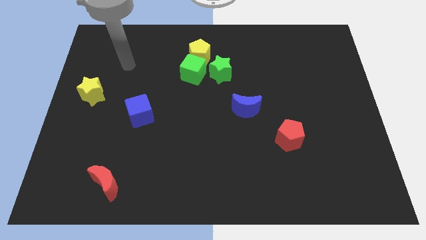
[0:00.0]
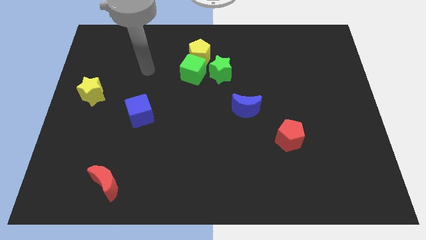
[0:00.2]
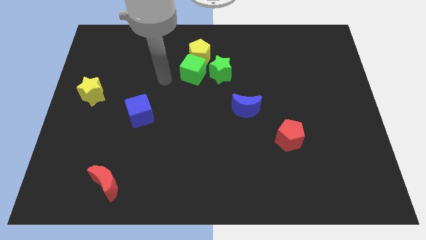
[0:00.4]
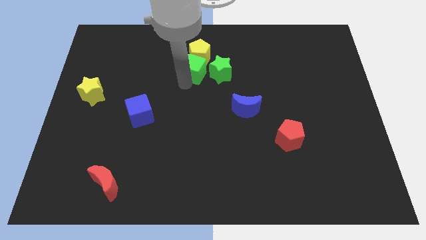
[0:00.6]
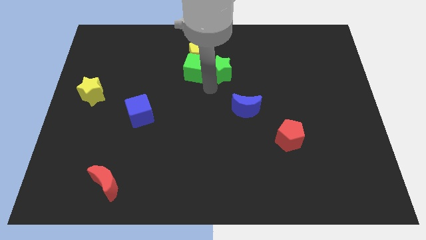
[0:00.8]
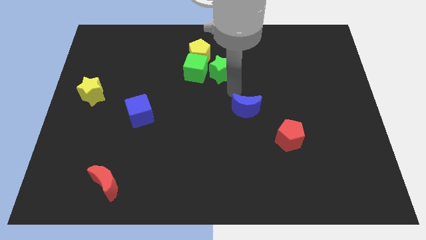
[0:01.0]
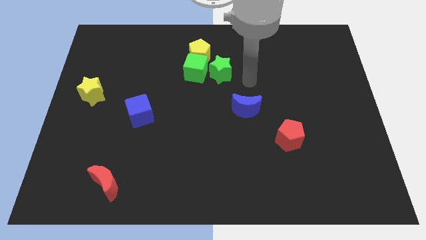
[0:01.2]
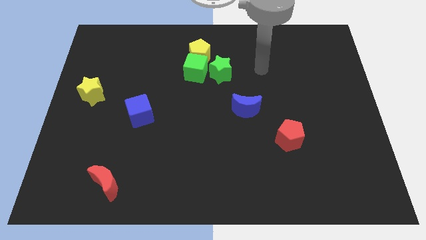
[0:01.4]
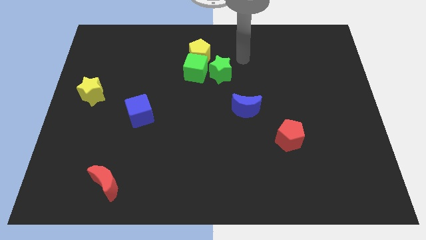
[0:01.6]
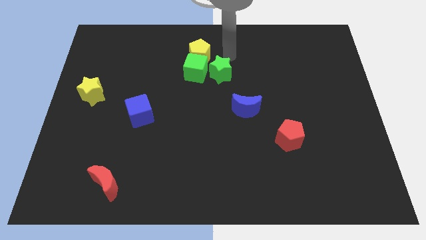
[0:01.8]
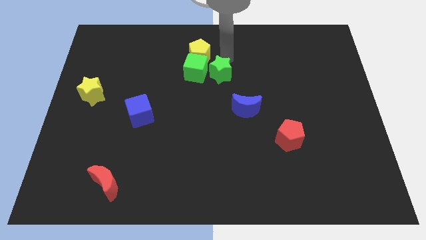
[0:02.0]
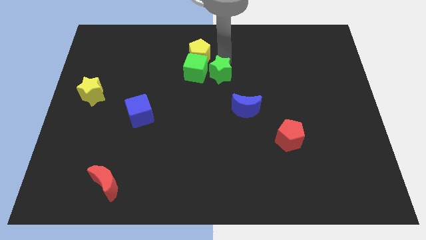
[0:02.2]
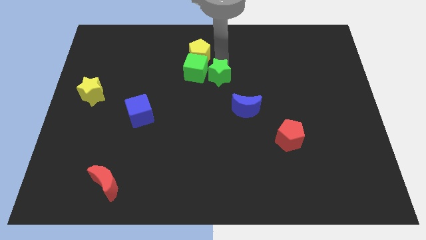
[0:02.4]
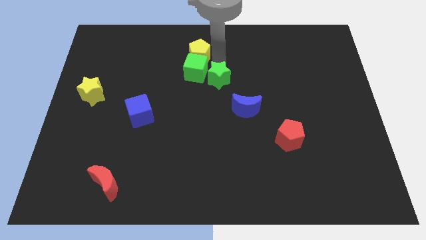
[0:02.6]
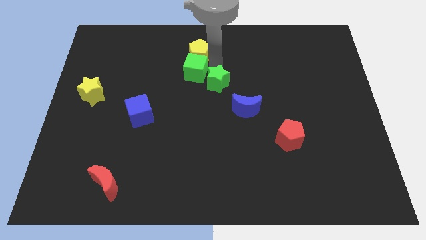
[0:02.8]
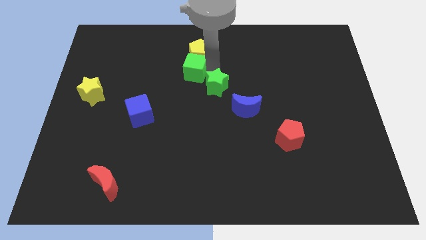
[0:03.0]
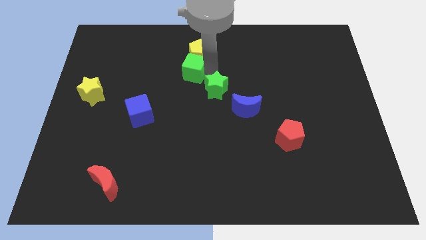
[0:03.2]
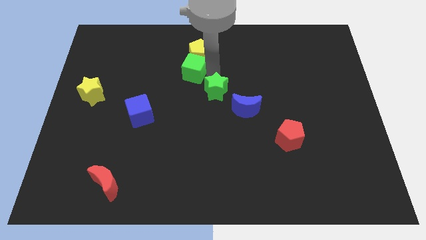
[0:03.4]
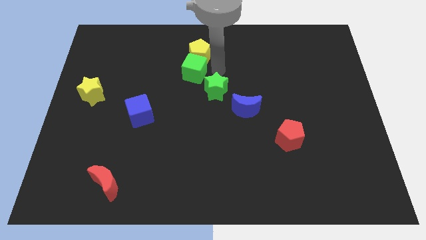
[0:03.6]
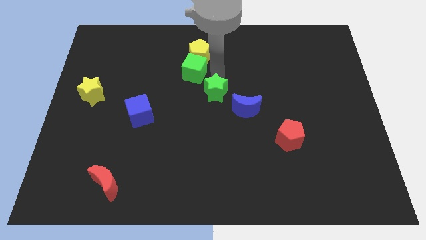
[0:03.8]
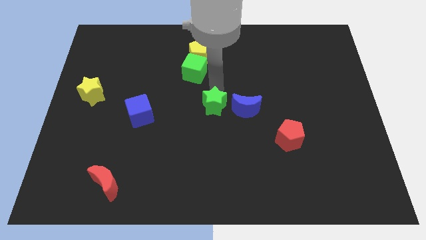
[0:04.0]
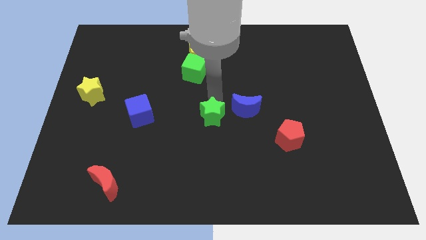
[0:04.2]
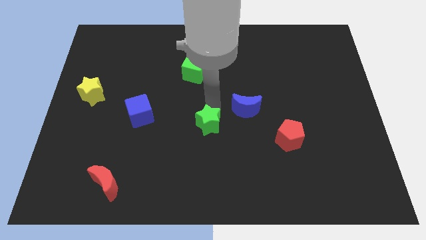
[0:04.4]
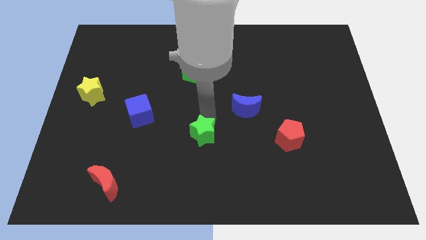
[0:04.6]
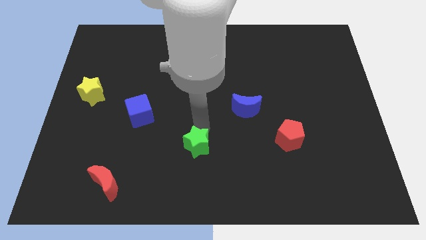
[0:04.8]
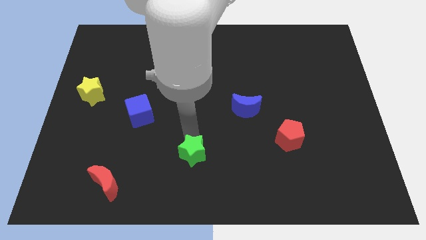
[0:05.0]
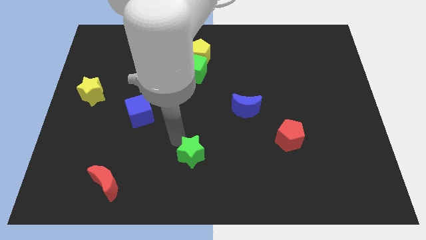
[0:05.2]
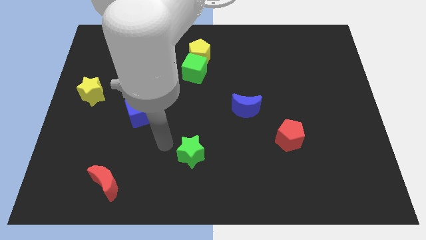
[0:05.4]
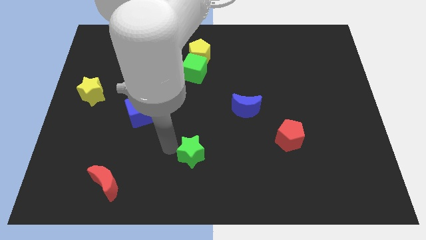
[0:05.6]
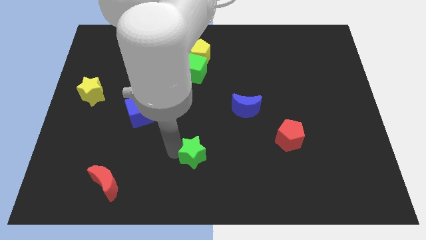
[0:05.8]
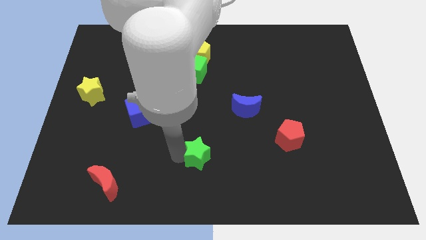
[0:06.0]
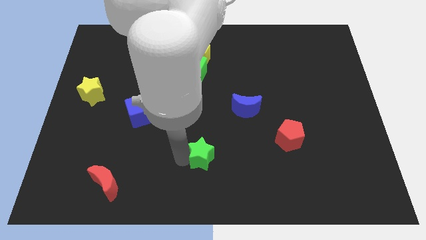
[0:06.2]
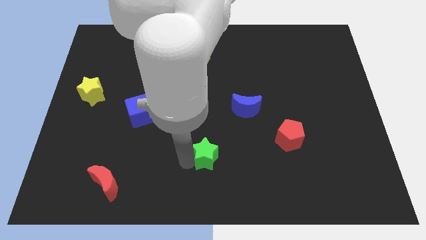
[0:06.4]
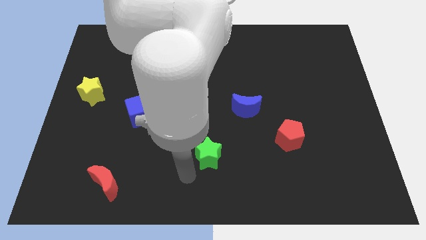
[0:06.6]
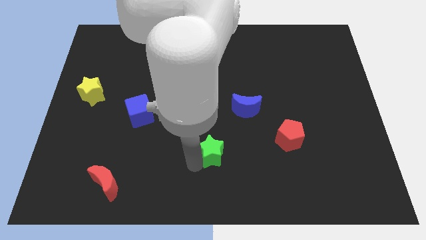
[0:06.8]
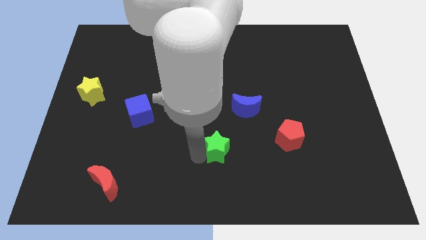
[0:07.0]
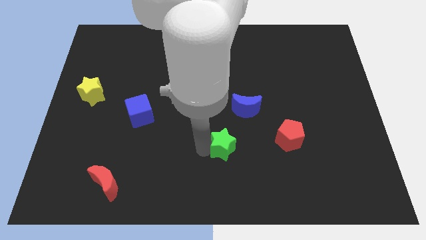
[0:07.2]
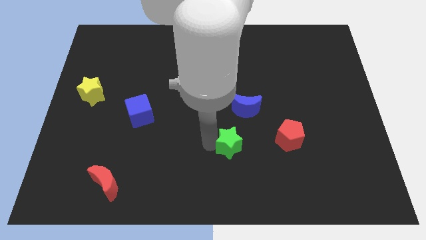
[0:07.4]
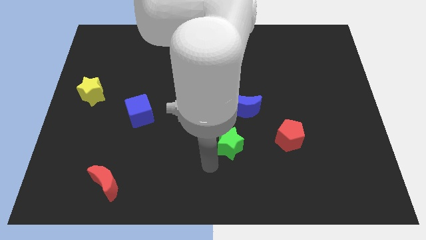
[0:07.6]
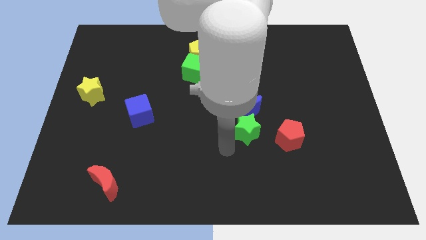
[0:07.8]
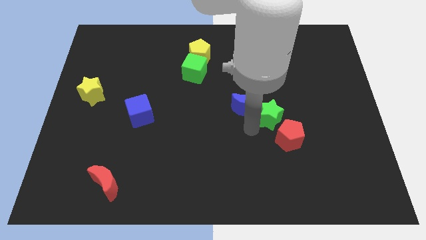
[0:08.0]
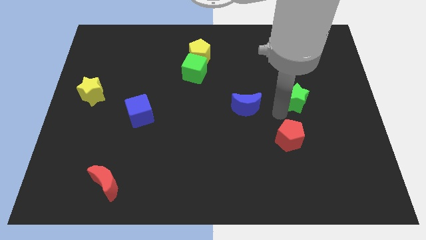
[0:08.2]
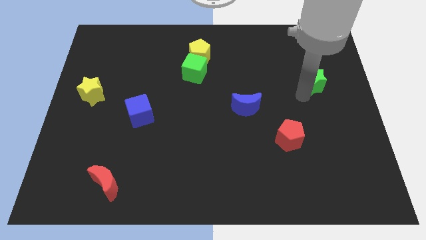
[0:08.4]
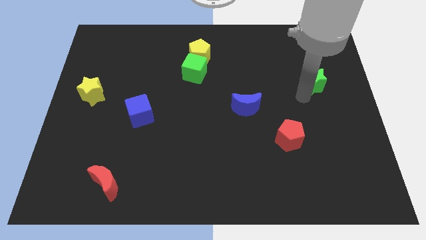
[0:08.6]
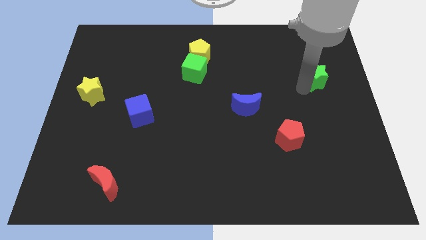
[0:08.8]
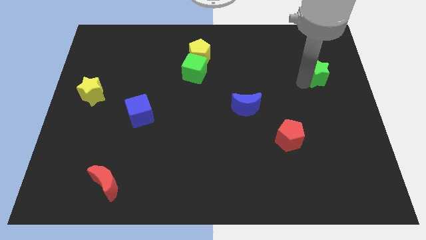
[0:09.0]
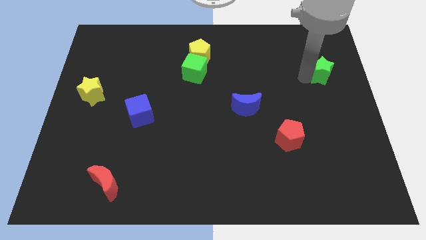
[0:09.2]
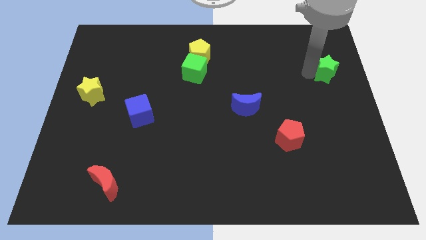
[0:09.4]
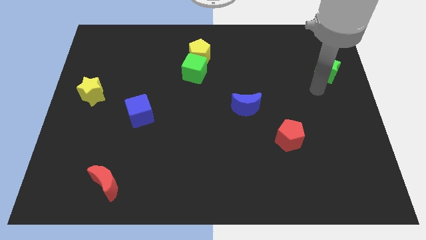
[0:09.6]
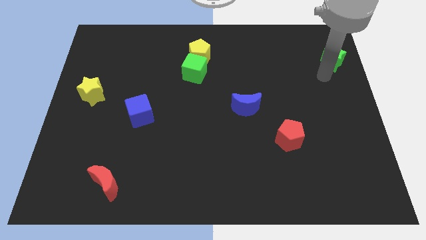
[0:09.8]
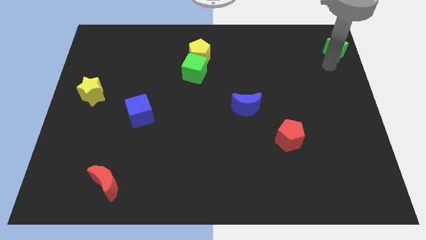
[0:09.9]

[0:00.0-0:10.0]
slide the green star to the top right corner

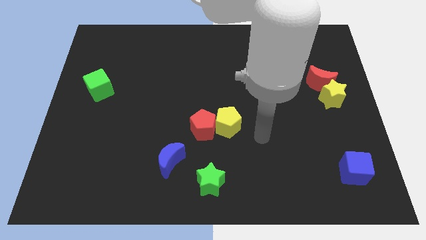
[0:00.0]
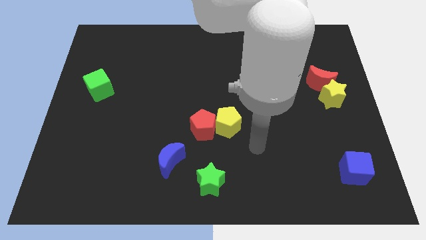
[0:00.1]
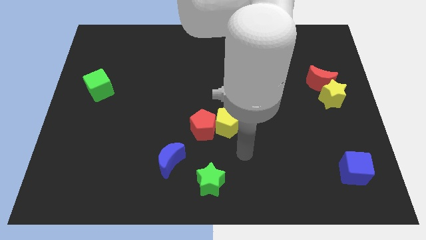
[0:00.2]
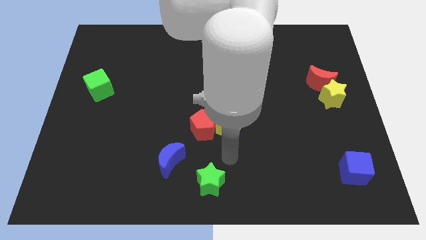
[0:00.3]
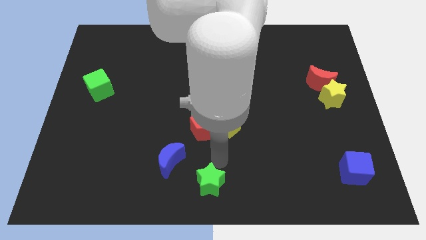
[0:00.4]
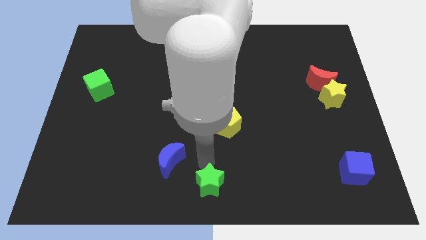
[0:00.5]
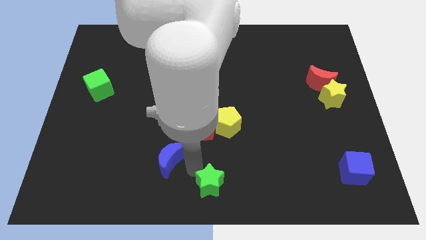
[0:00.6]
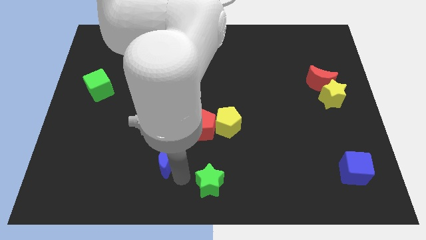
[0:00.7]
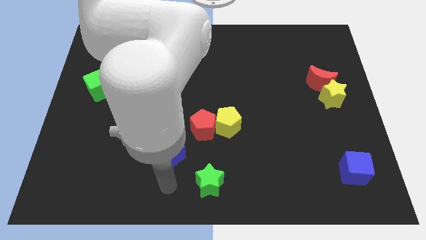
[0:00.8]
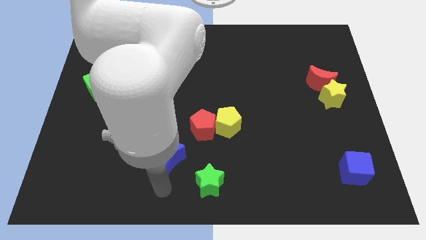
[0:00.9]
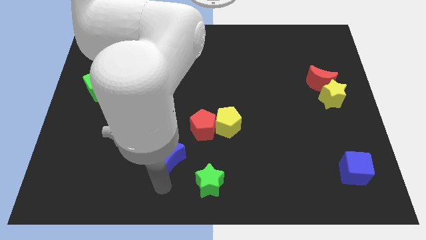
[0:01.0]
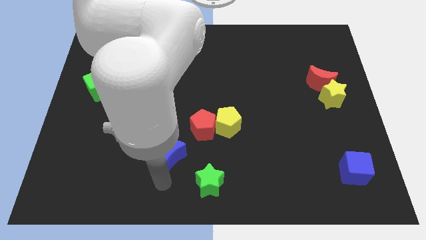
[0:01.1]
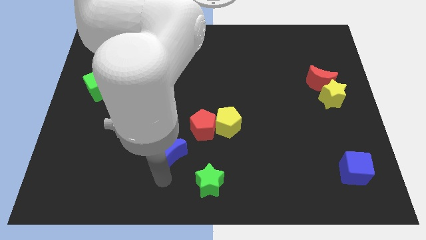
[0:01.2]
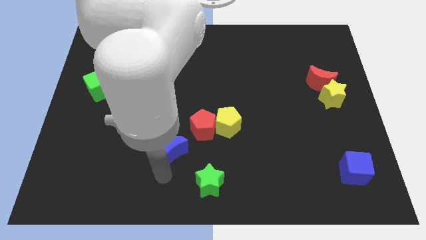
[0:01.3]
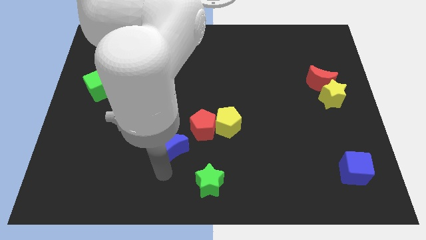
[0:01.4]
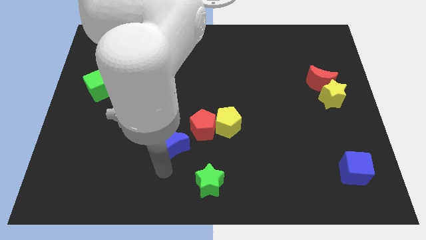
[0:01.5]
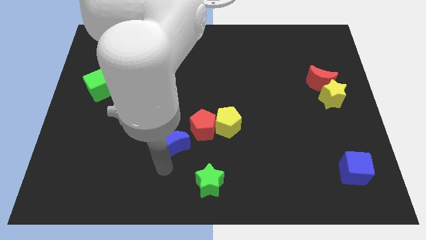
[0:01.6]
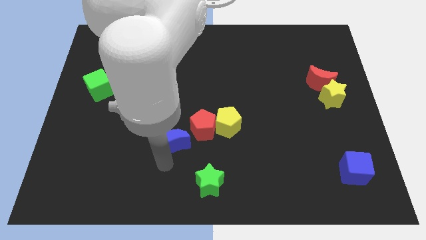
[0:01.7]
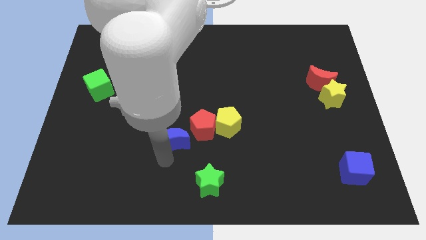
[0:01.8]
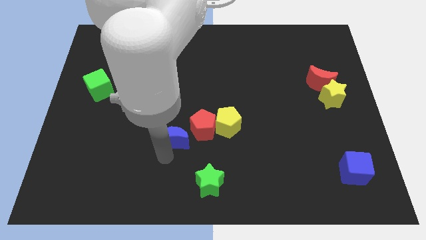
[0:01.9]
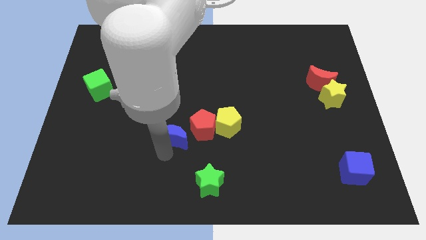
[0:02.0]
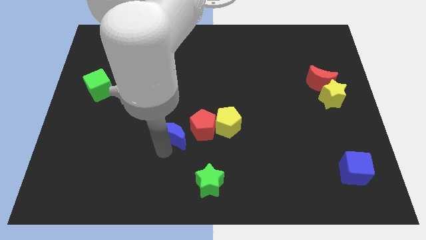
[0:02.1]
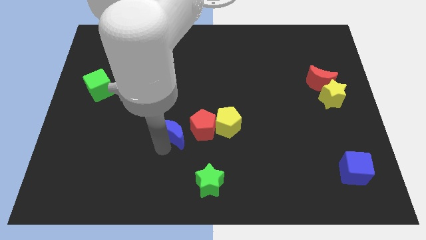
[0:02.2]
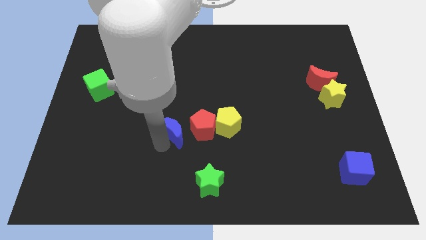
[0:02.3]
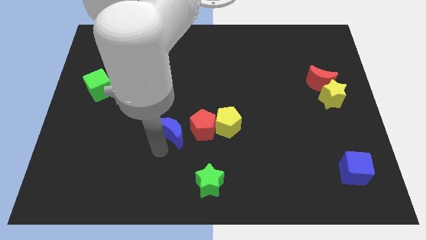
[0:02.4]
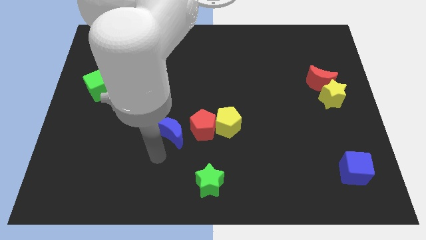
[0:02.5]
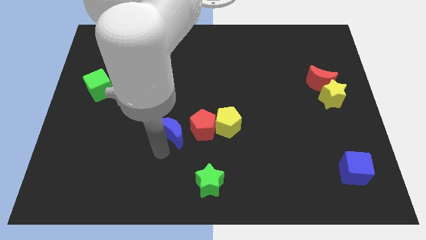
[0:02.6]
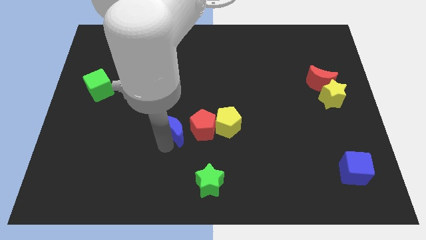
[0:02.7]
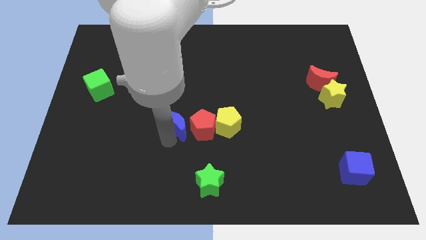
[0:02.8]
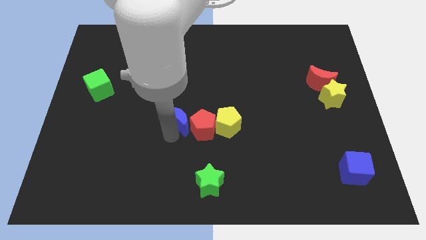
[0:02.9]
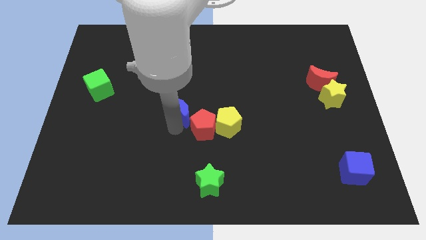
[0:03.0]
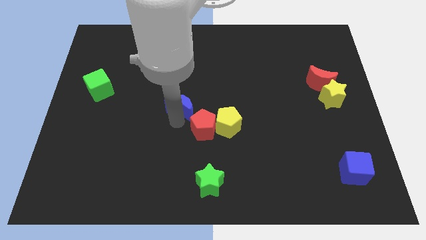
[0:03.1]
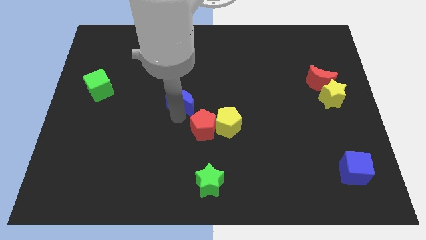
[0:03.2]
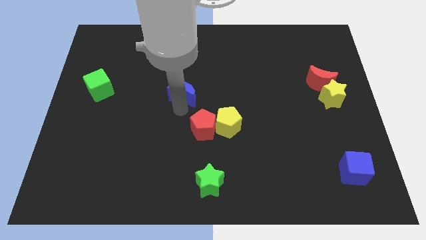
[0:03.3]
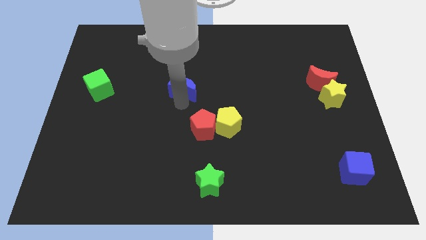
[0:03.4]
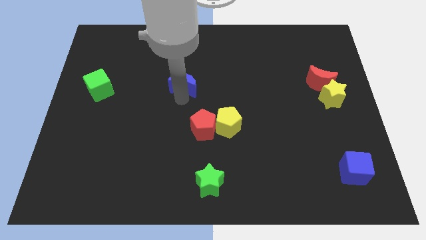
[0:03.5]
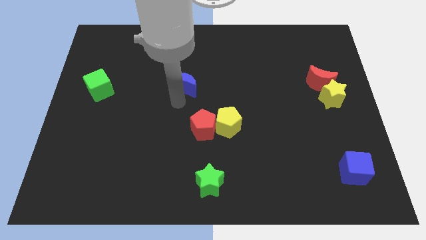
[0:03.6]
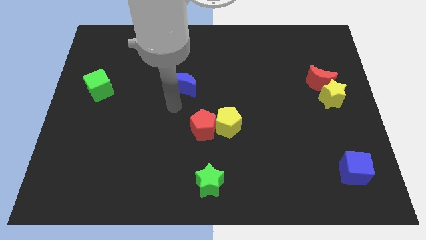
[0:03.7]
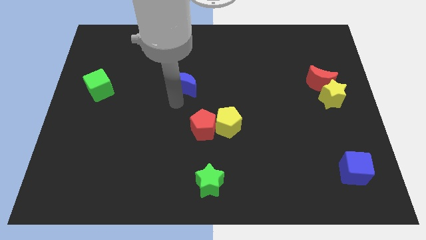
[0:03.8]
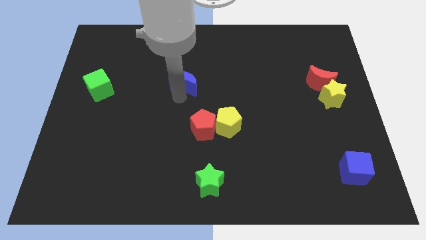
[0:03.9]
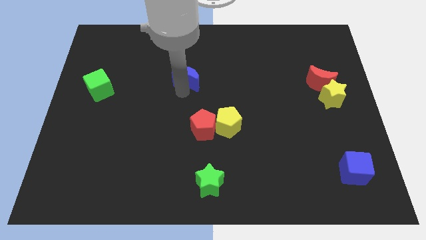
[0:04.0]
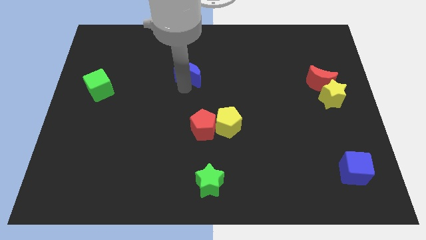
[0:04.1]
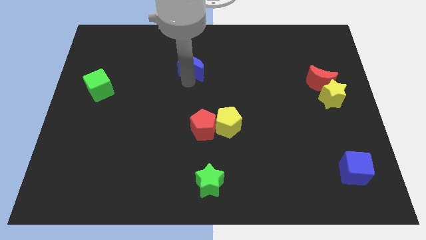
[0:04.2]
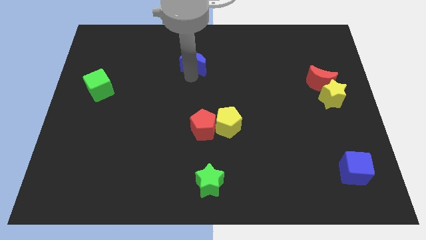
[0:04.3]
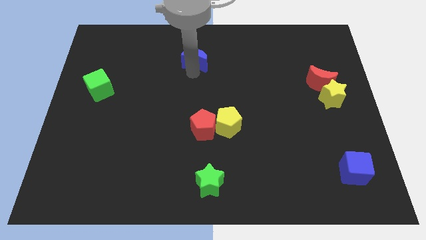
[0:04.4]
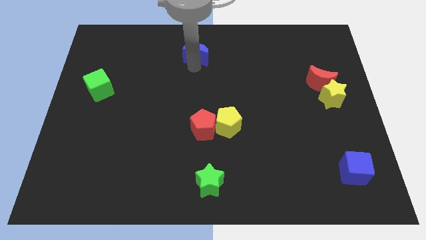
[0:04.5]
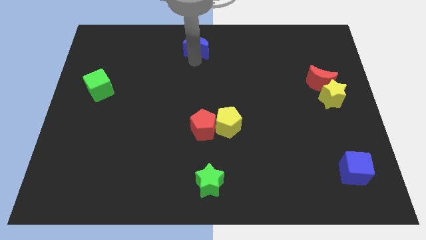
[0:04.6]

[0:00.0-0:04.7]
move the blue moon to the top
